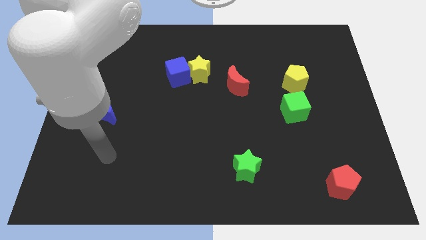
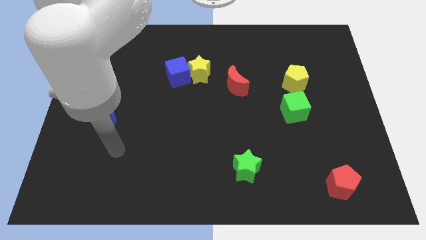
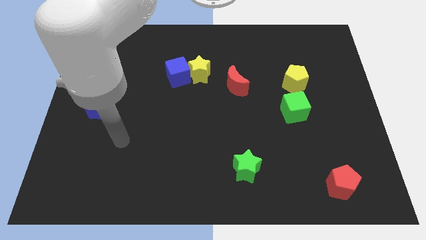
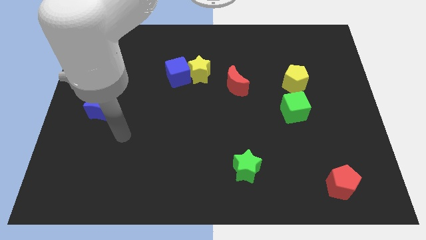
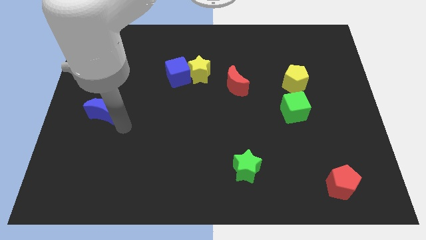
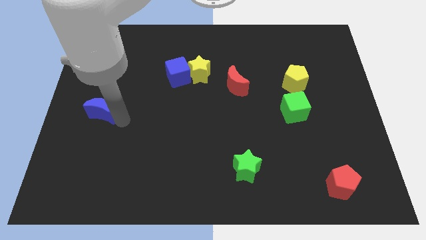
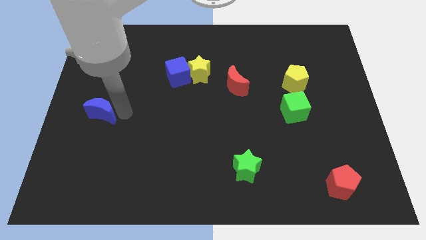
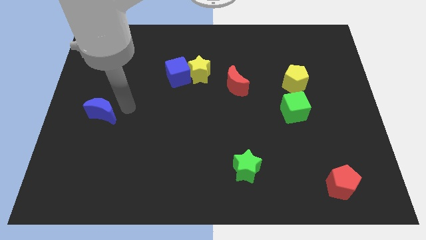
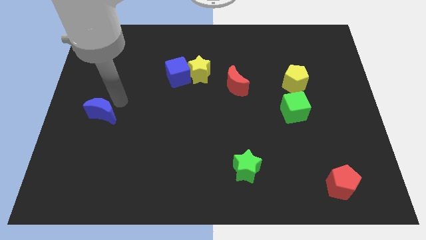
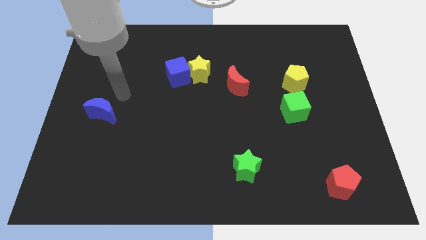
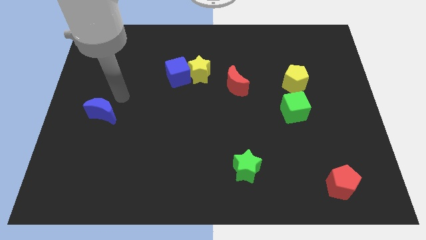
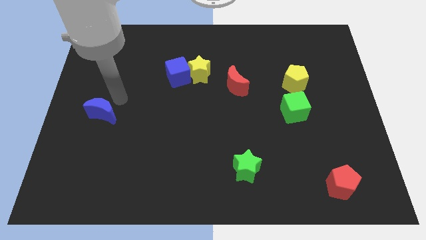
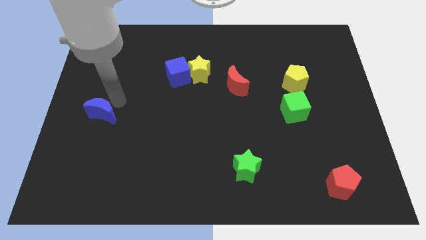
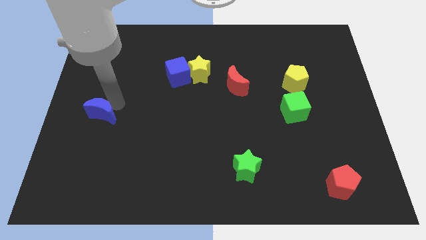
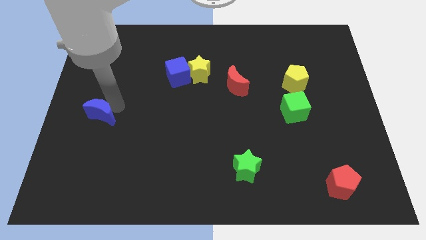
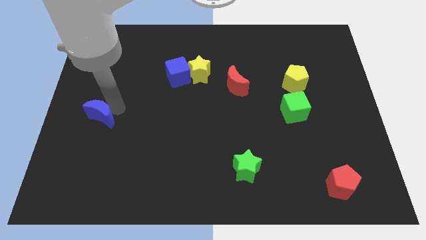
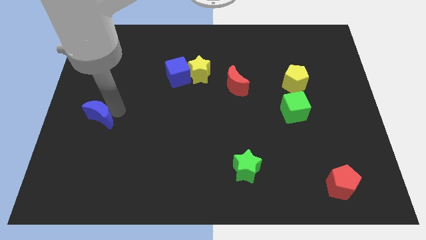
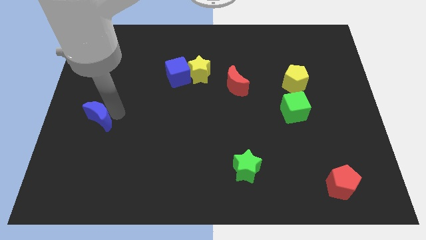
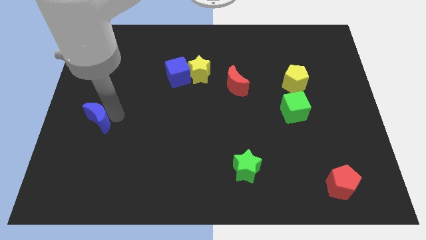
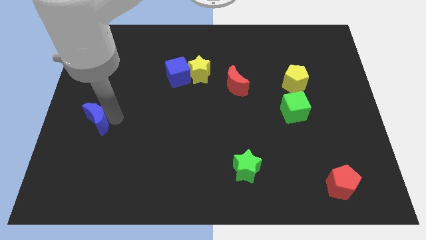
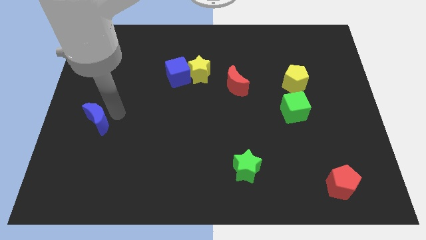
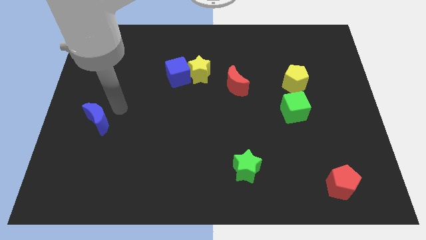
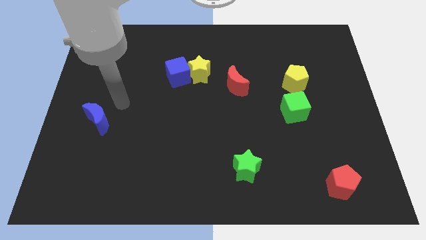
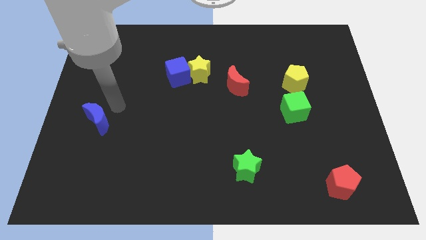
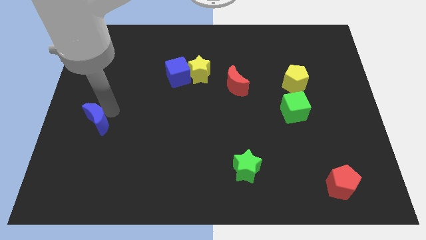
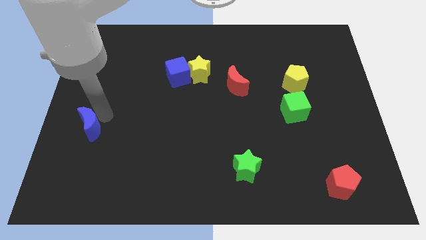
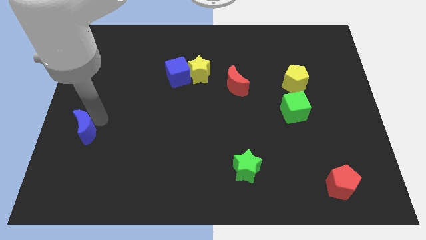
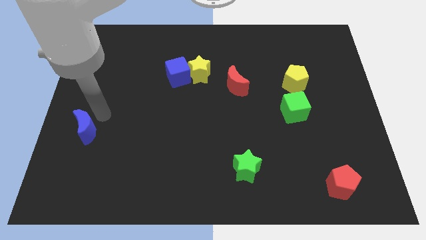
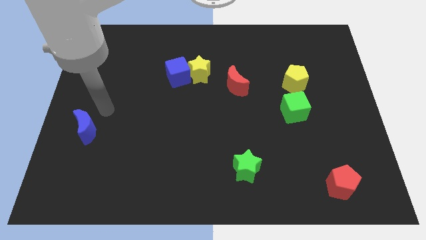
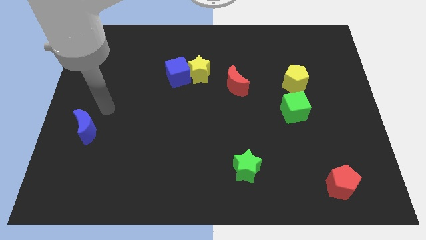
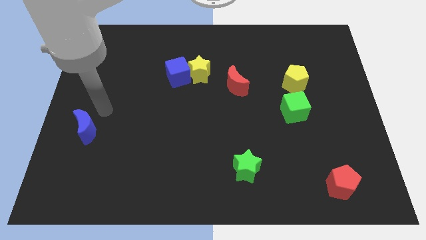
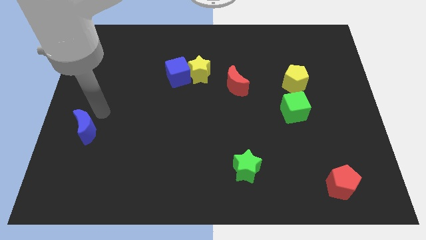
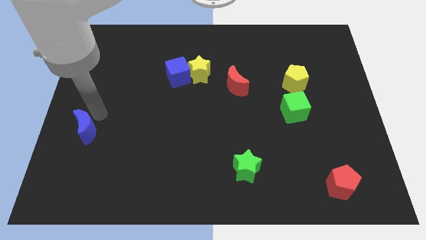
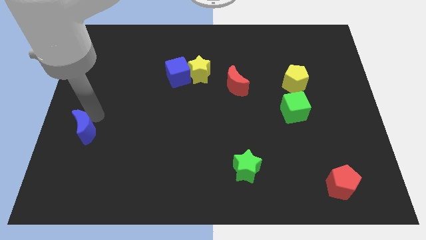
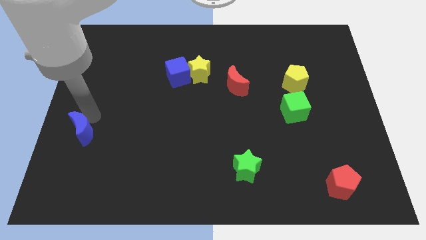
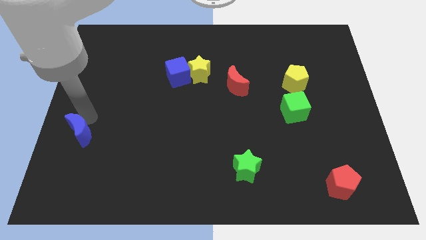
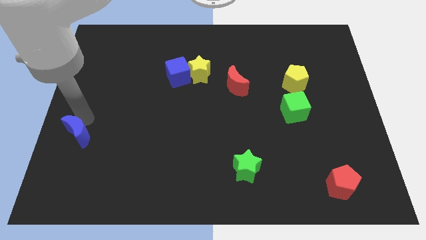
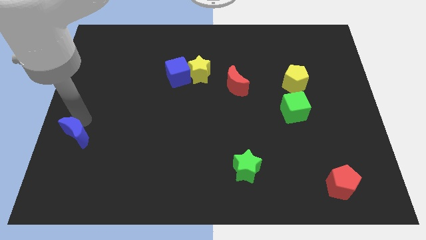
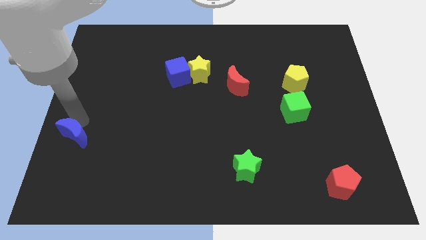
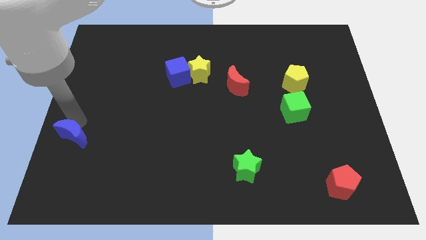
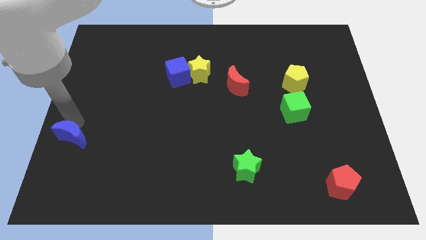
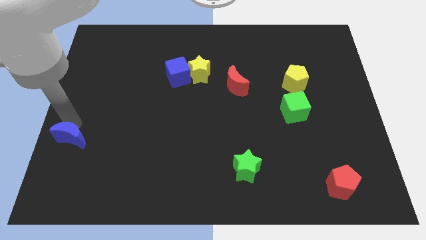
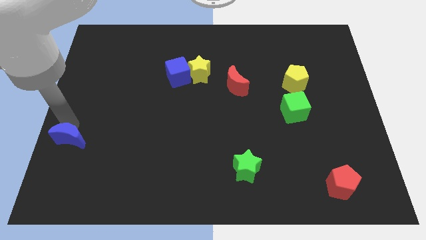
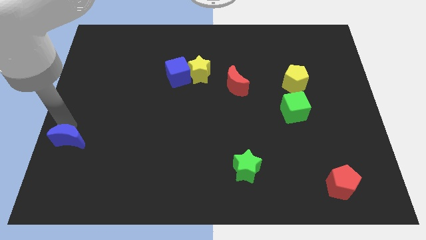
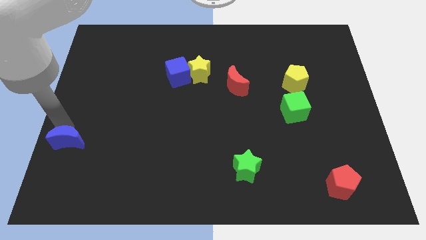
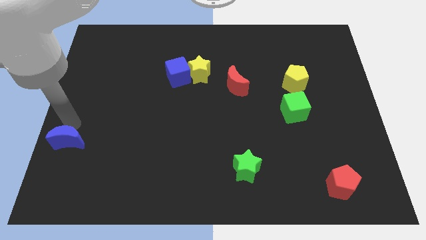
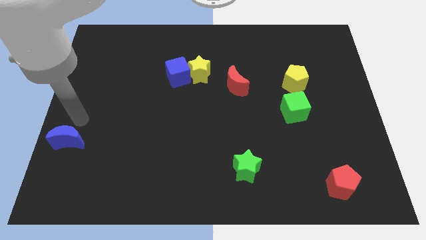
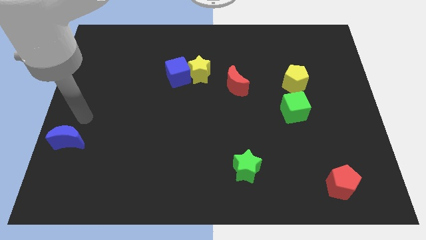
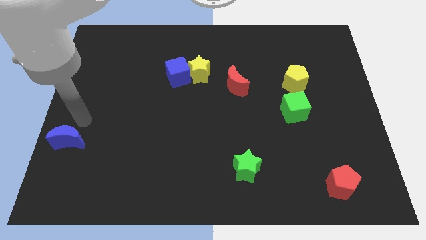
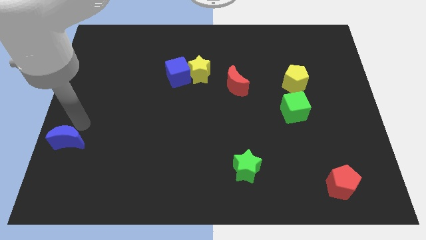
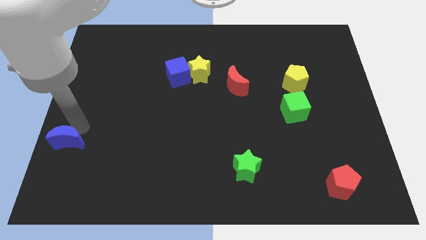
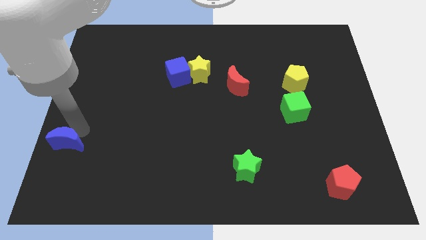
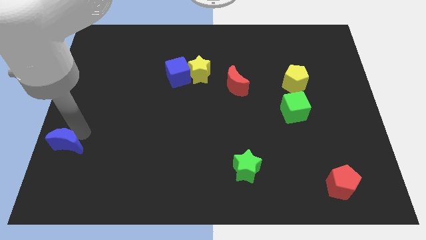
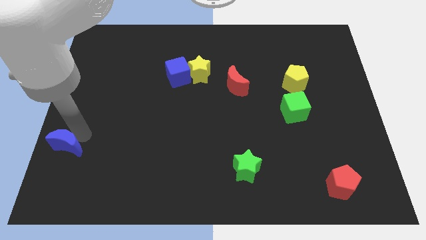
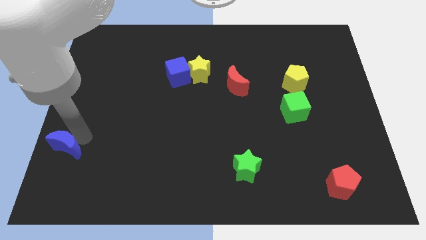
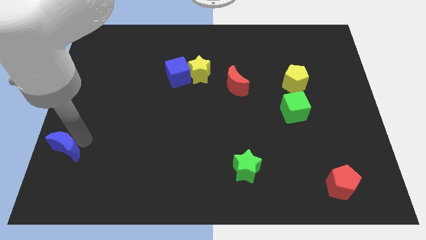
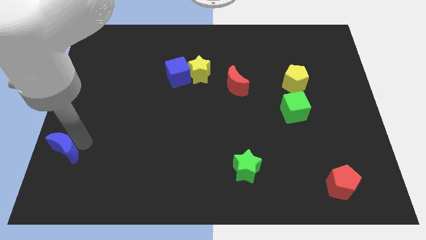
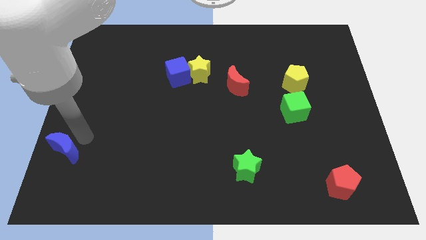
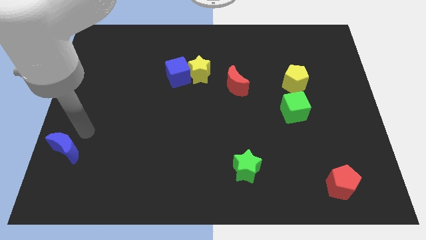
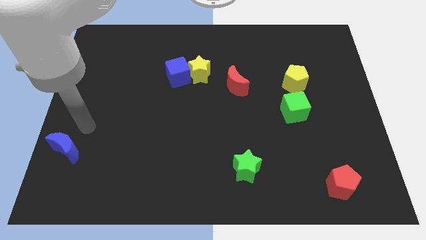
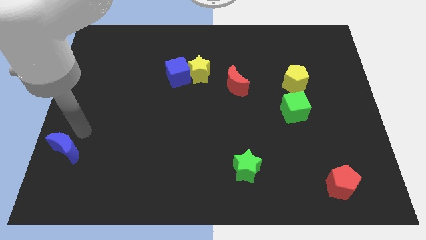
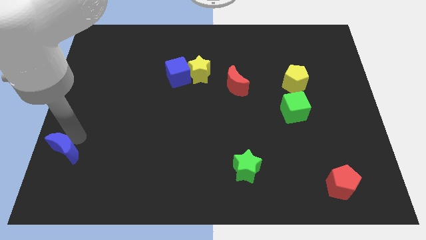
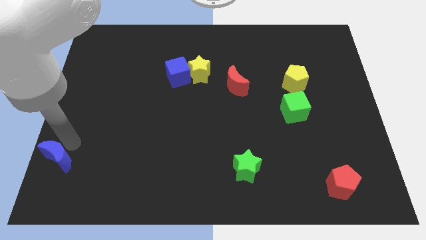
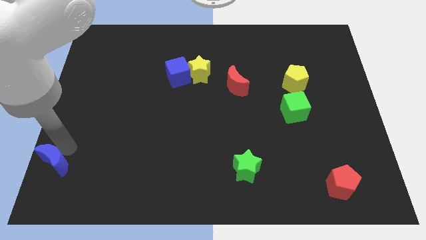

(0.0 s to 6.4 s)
push the blue moon to the bottom left

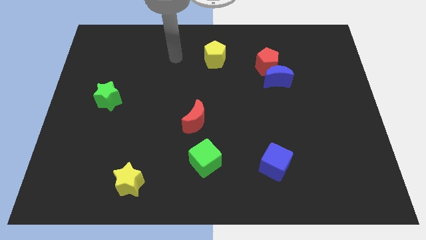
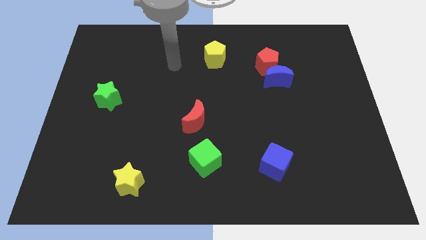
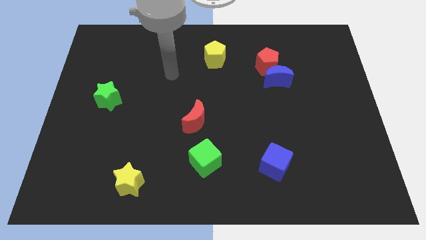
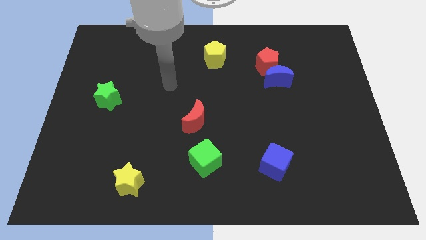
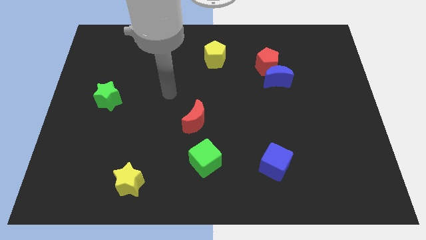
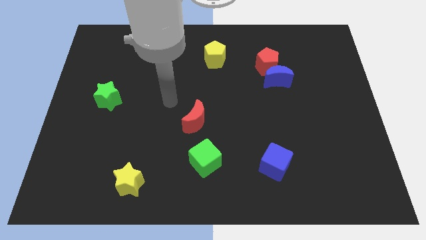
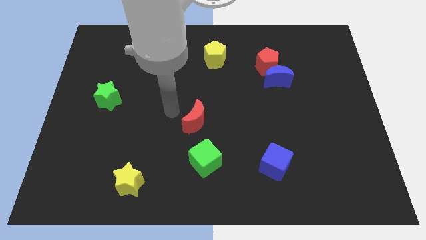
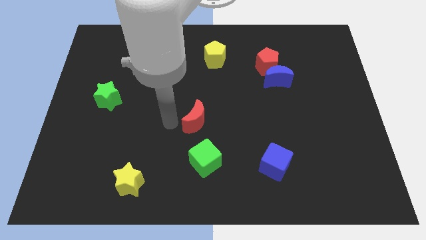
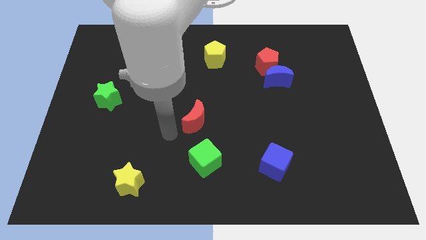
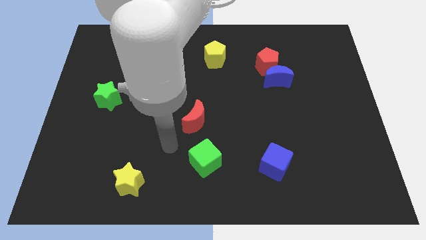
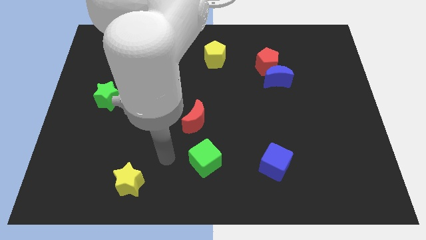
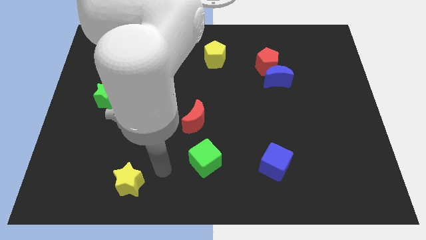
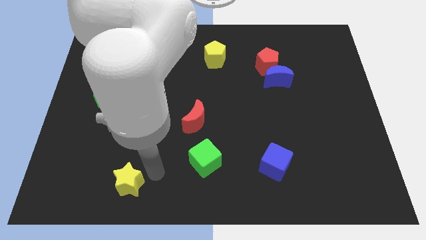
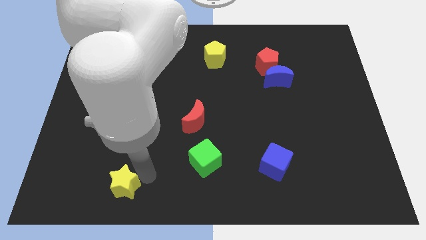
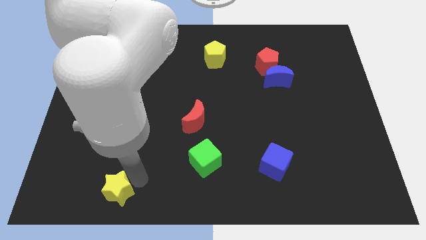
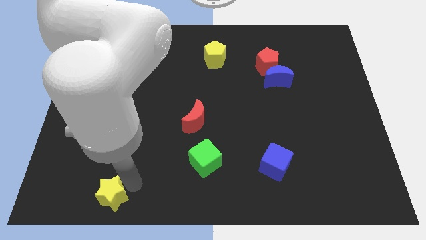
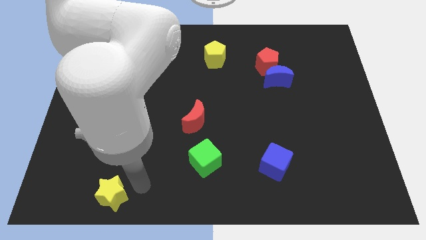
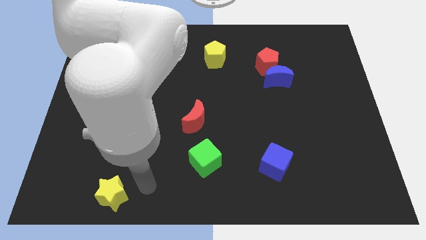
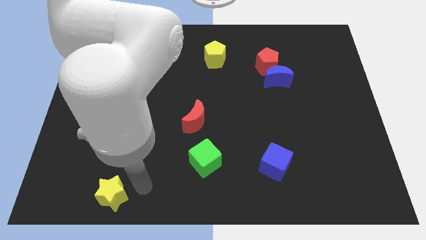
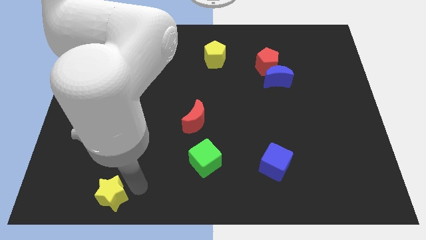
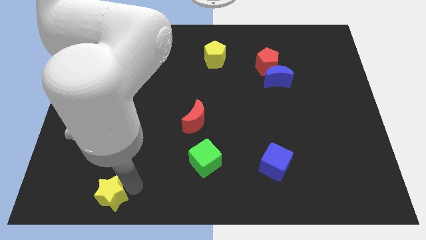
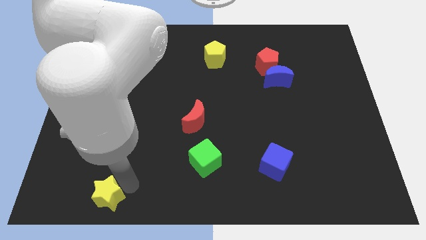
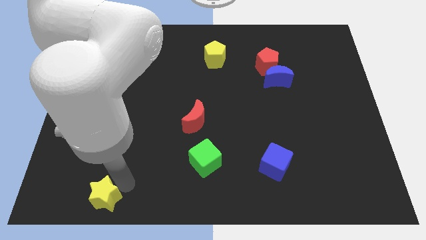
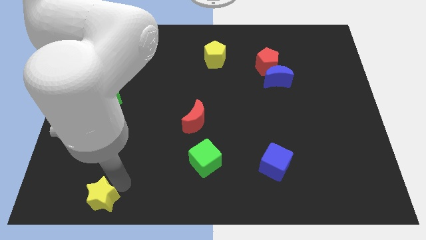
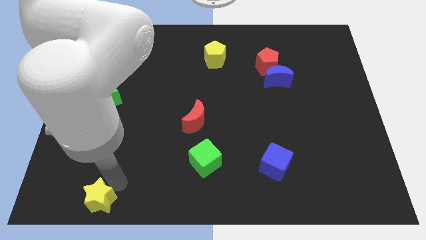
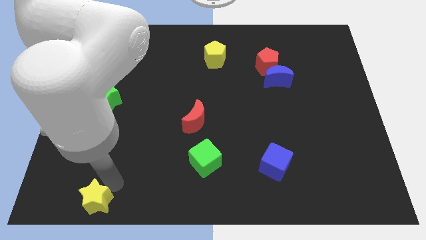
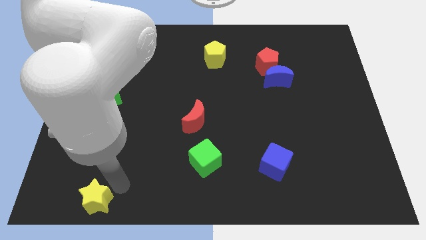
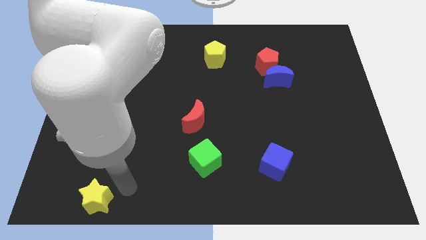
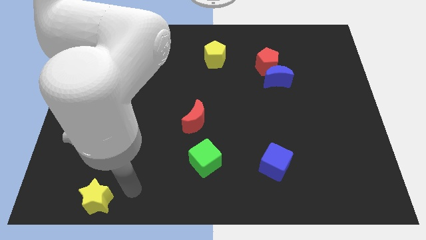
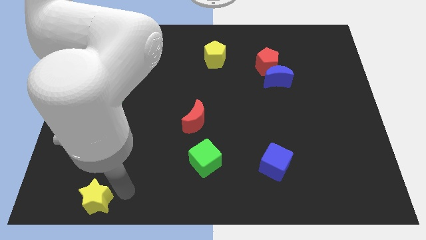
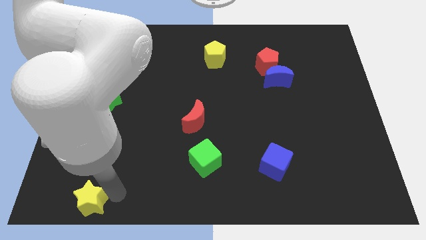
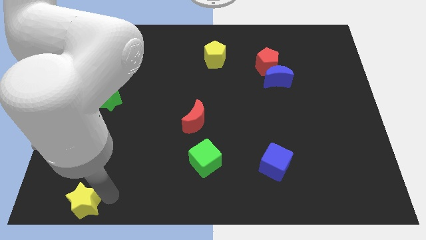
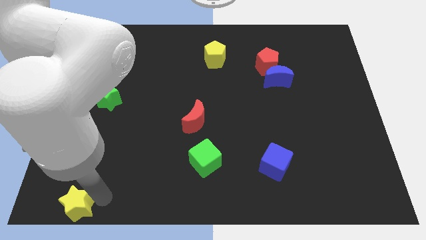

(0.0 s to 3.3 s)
slide the yellow star to the bottom left of the board
